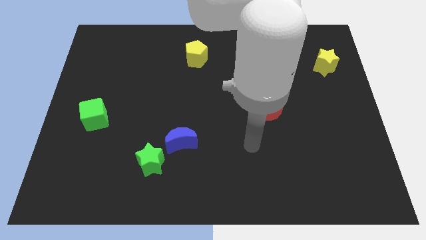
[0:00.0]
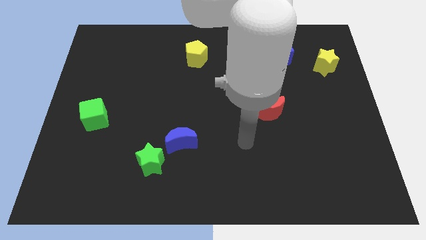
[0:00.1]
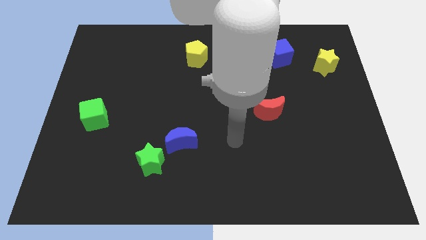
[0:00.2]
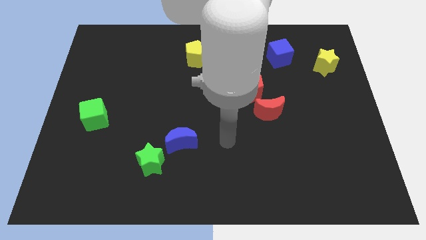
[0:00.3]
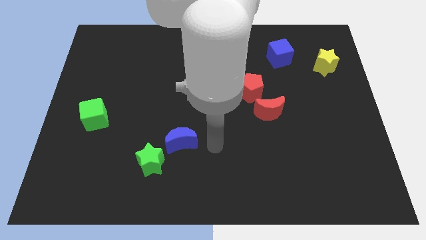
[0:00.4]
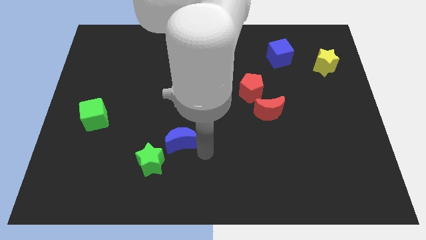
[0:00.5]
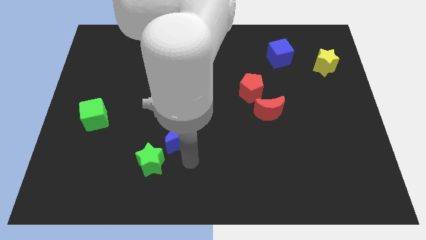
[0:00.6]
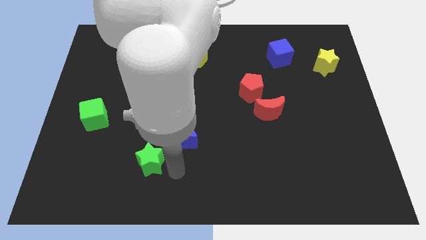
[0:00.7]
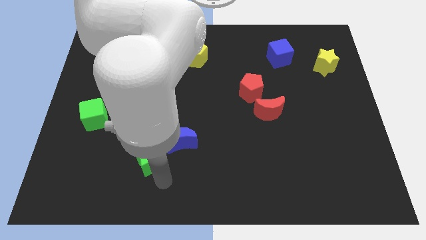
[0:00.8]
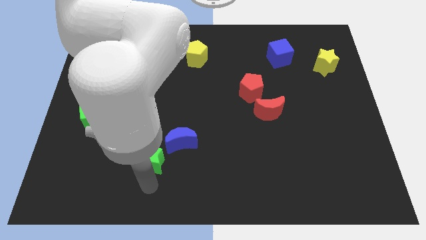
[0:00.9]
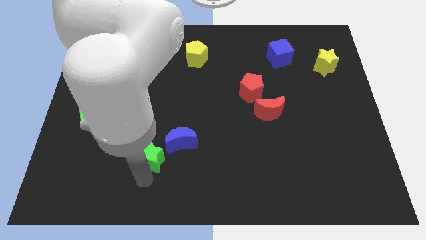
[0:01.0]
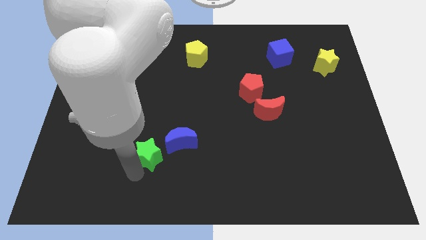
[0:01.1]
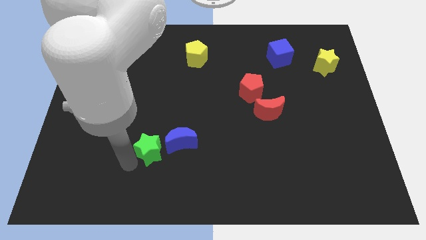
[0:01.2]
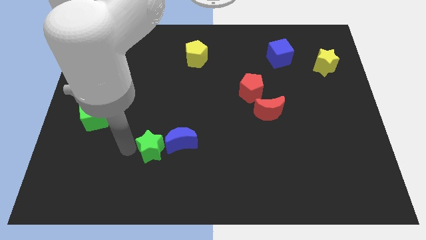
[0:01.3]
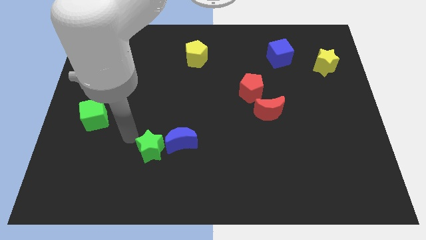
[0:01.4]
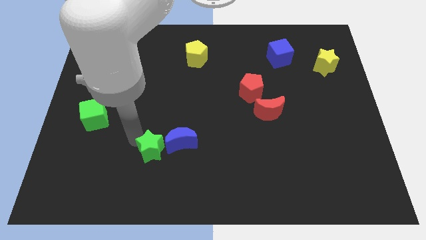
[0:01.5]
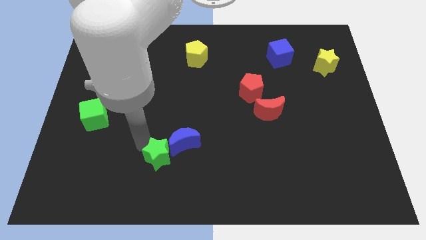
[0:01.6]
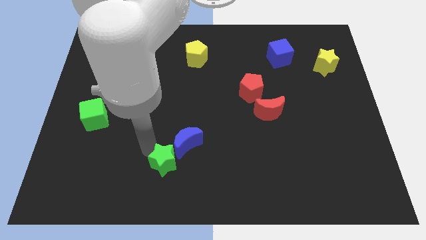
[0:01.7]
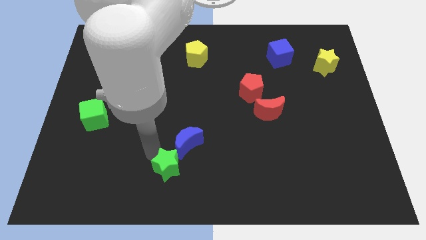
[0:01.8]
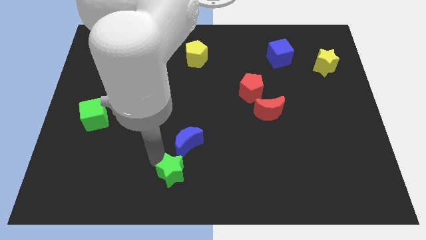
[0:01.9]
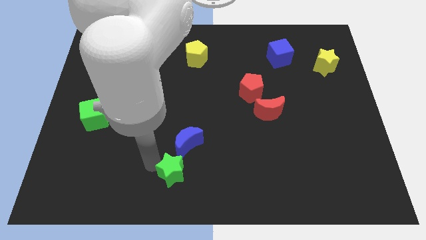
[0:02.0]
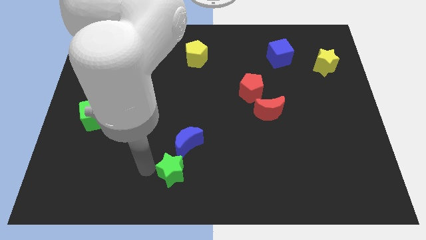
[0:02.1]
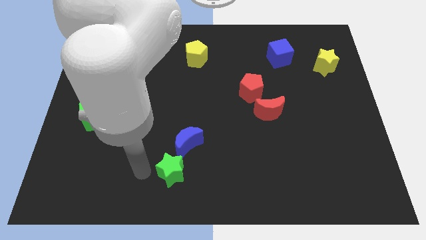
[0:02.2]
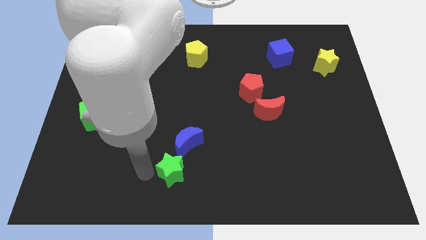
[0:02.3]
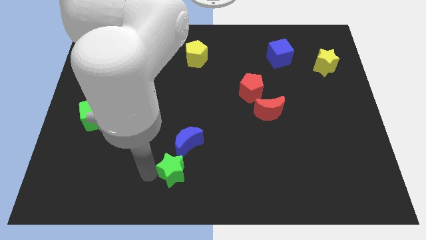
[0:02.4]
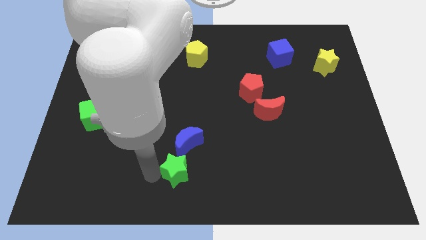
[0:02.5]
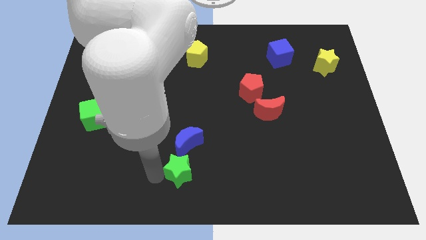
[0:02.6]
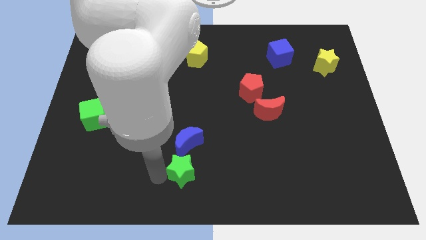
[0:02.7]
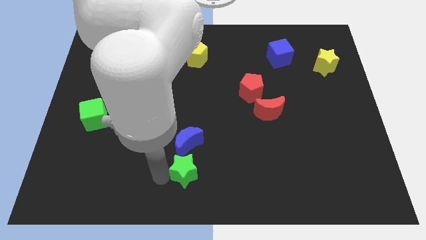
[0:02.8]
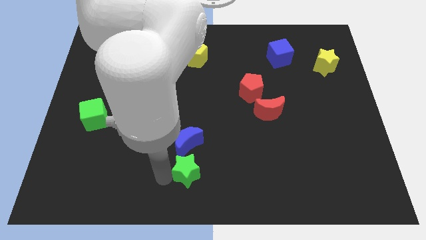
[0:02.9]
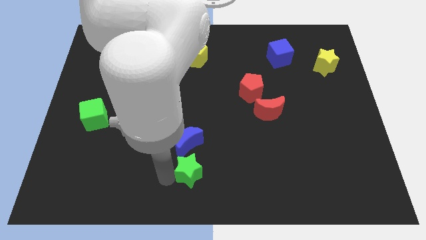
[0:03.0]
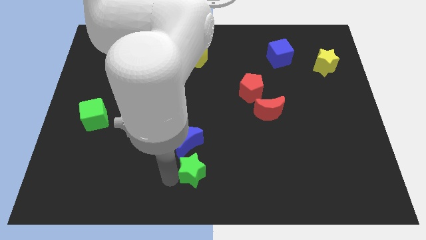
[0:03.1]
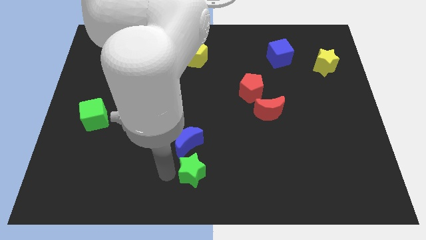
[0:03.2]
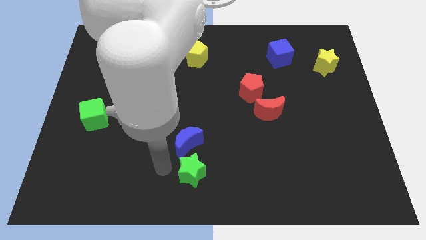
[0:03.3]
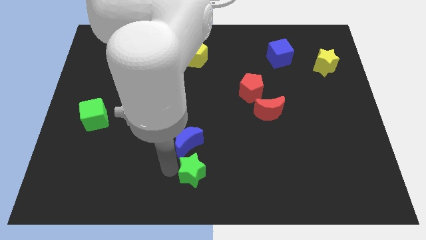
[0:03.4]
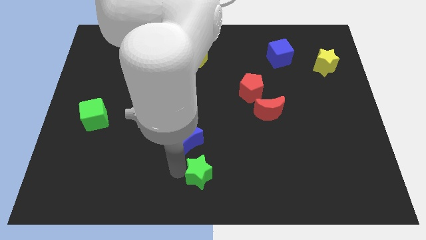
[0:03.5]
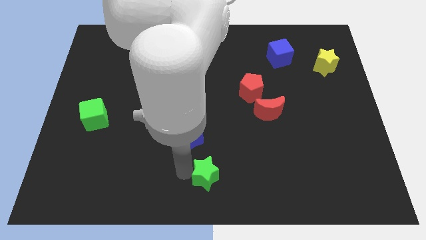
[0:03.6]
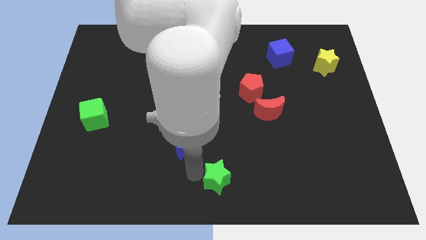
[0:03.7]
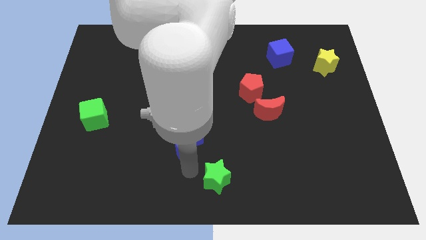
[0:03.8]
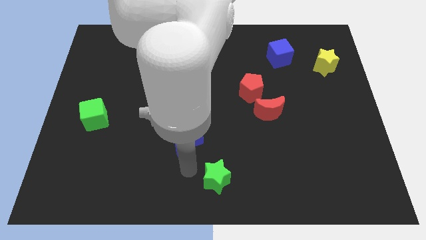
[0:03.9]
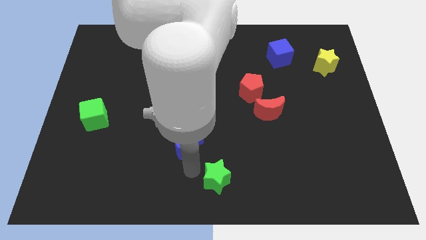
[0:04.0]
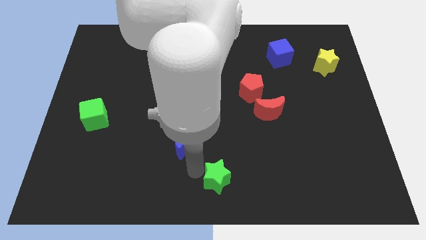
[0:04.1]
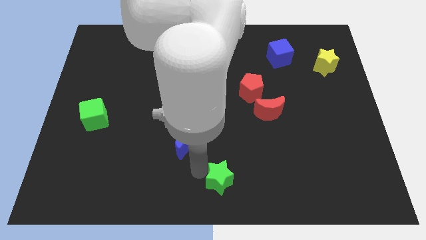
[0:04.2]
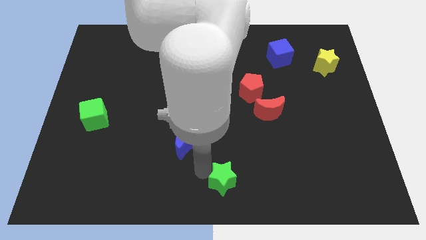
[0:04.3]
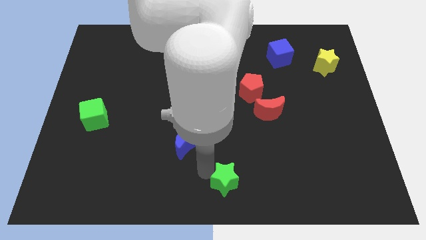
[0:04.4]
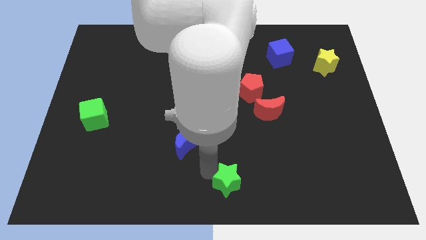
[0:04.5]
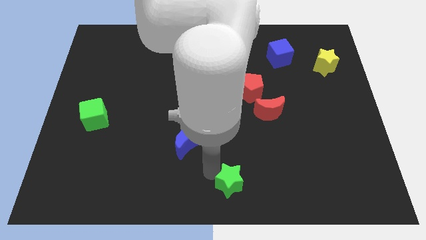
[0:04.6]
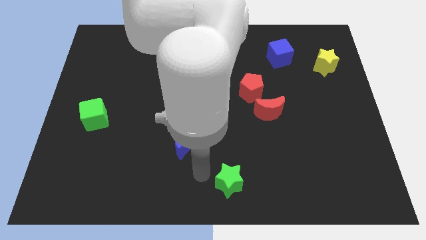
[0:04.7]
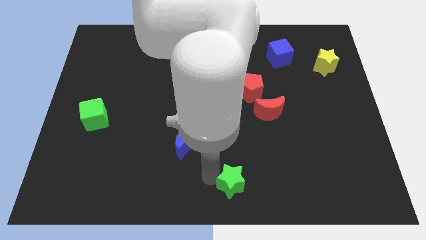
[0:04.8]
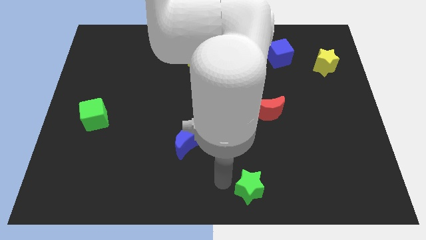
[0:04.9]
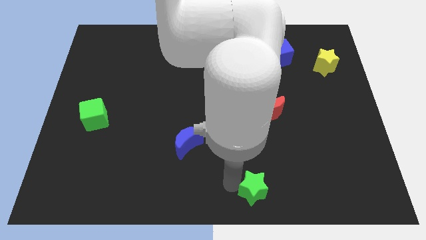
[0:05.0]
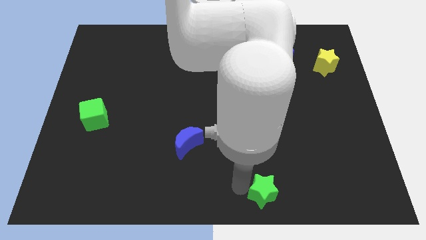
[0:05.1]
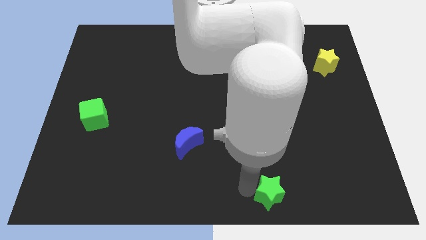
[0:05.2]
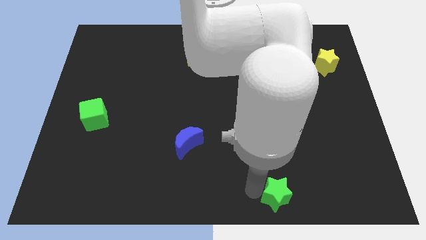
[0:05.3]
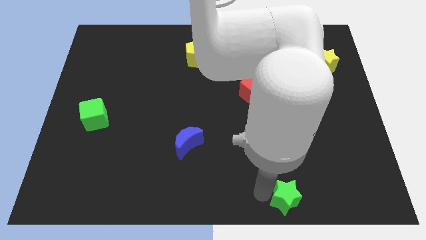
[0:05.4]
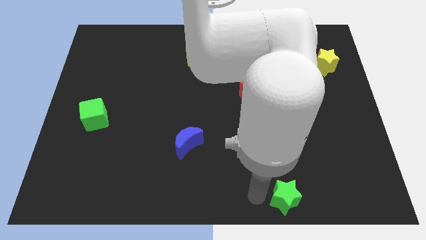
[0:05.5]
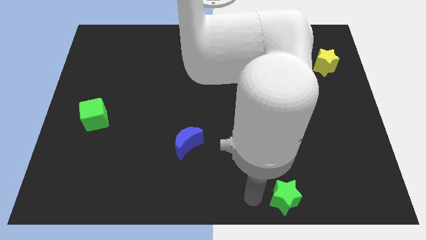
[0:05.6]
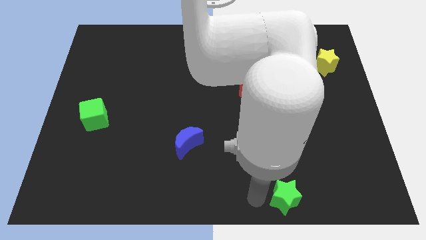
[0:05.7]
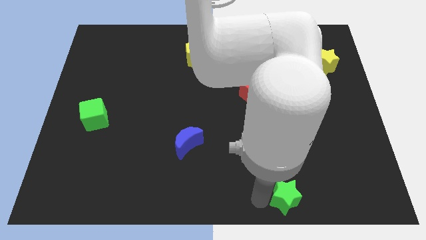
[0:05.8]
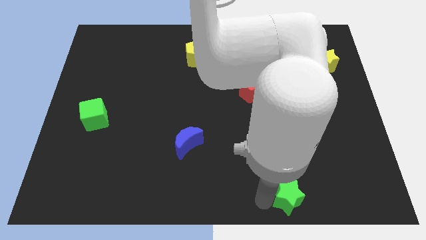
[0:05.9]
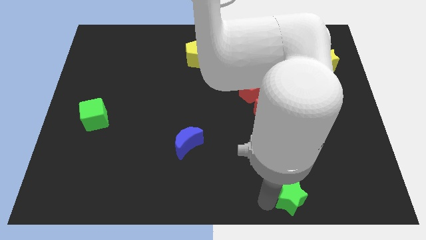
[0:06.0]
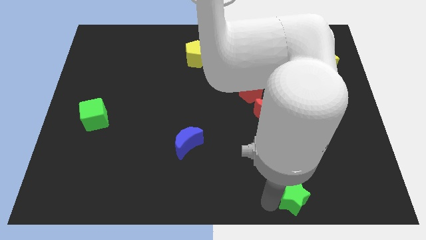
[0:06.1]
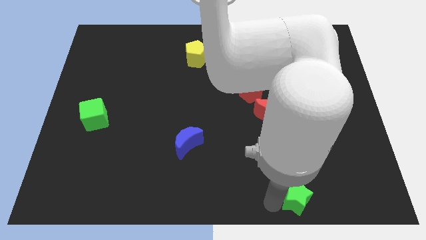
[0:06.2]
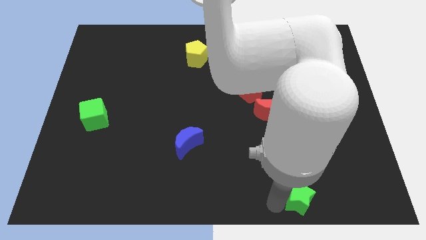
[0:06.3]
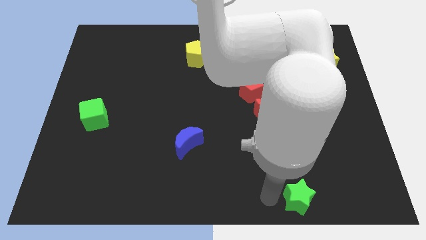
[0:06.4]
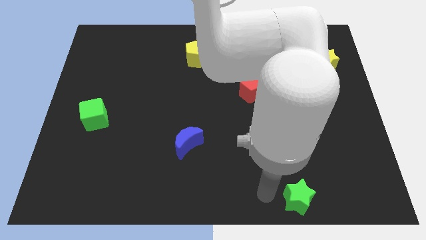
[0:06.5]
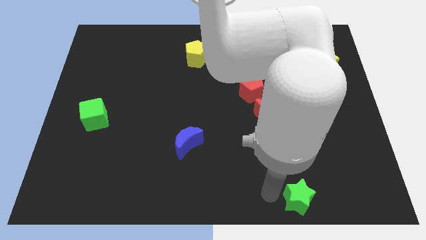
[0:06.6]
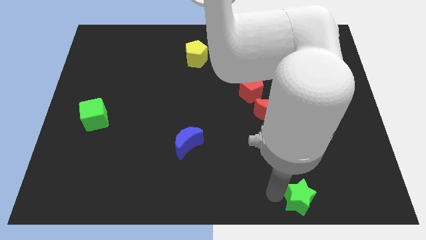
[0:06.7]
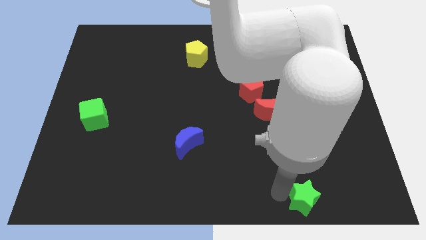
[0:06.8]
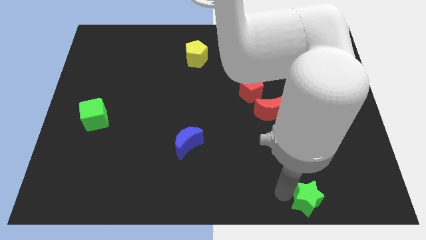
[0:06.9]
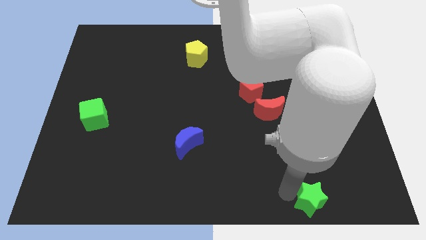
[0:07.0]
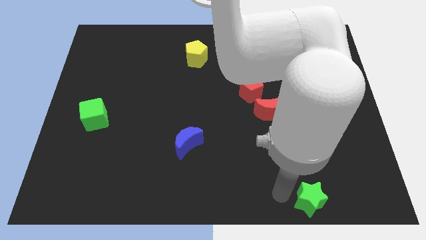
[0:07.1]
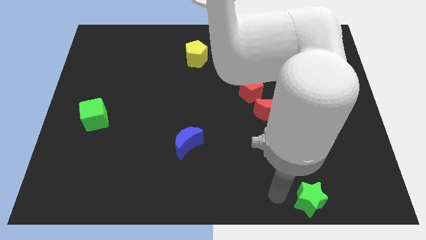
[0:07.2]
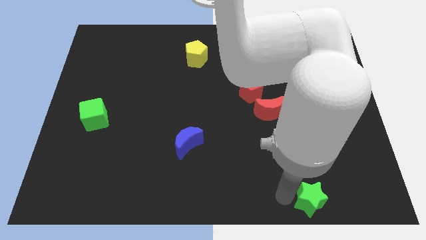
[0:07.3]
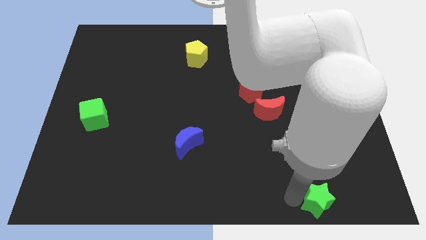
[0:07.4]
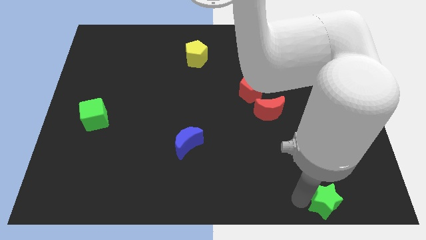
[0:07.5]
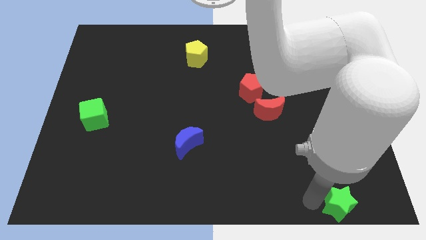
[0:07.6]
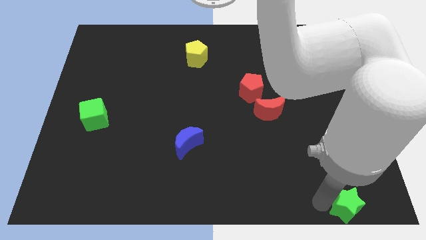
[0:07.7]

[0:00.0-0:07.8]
move the green star to the bottom right corner
